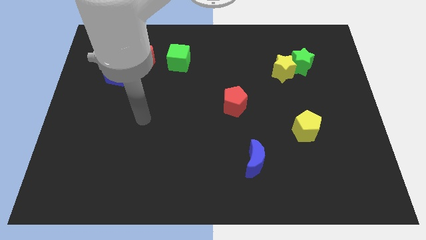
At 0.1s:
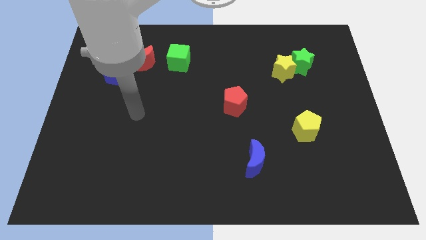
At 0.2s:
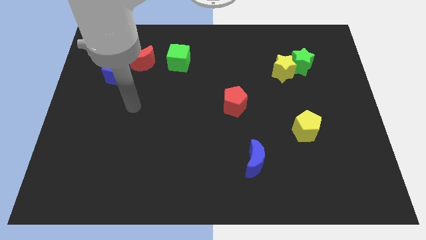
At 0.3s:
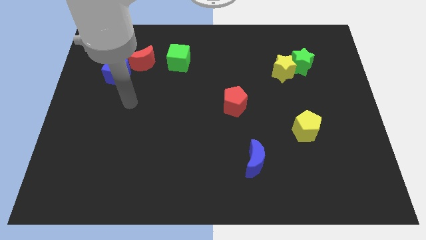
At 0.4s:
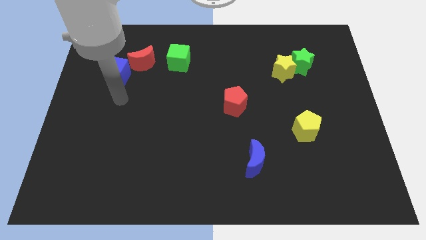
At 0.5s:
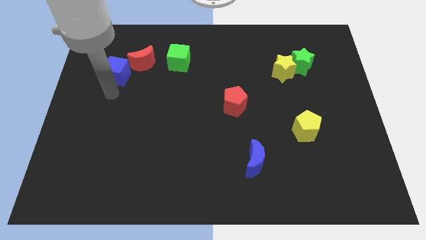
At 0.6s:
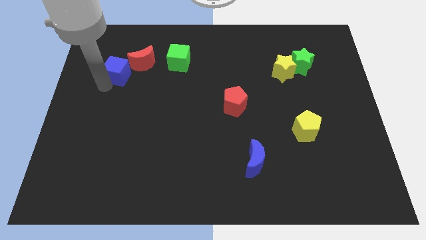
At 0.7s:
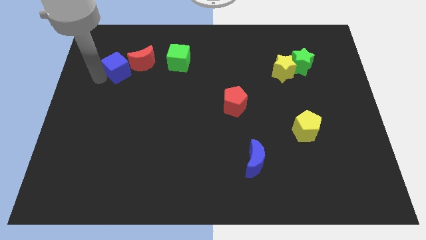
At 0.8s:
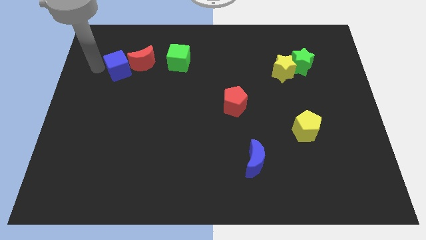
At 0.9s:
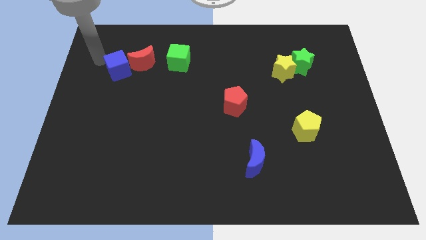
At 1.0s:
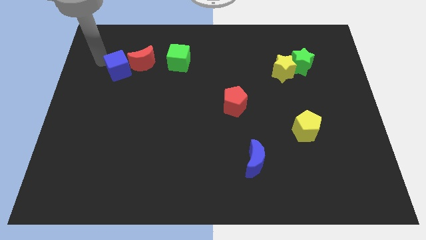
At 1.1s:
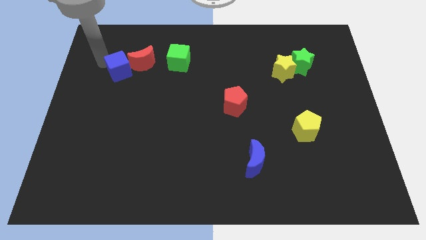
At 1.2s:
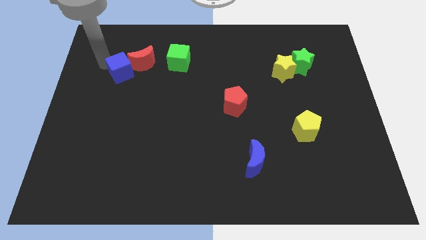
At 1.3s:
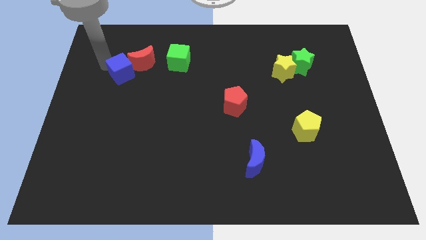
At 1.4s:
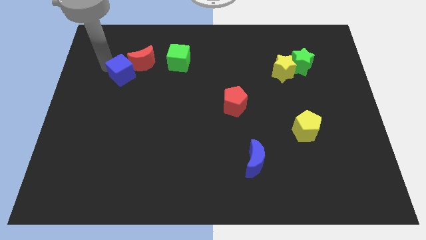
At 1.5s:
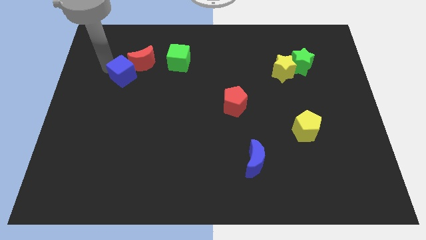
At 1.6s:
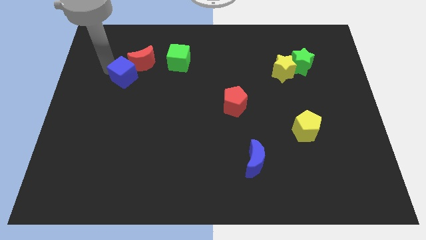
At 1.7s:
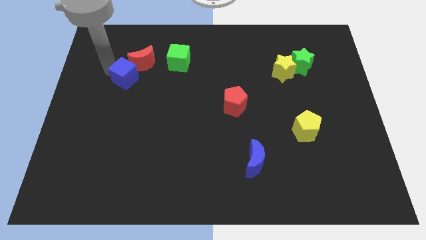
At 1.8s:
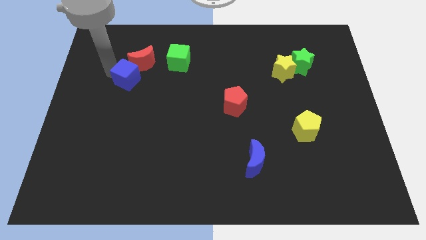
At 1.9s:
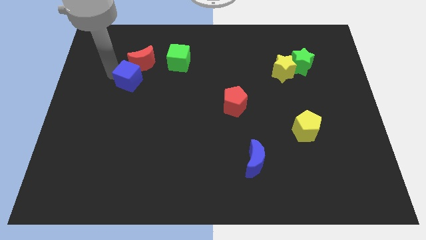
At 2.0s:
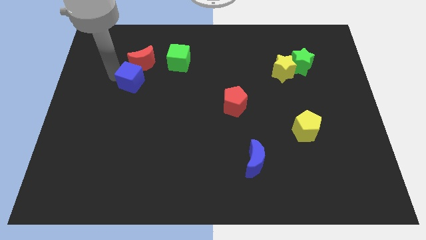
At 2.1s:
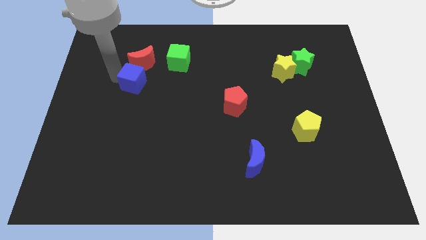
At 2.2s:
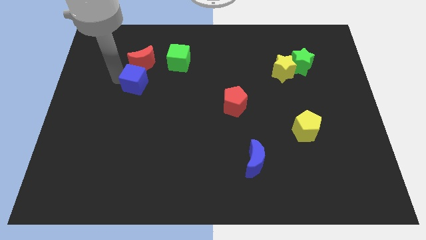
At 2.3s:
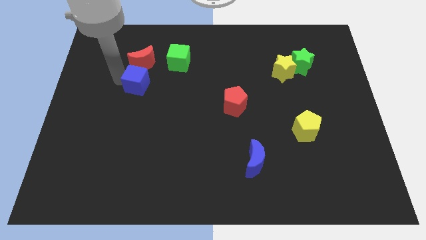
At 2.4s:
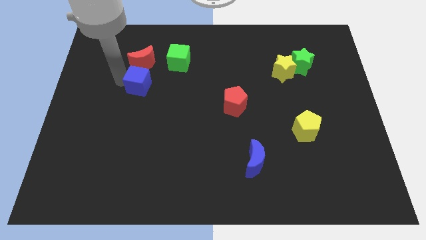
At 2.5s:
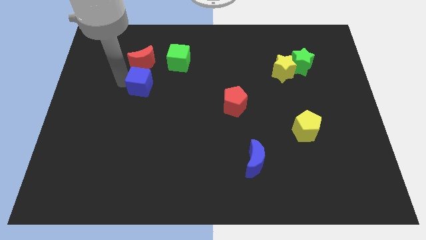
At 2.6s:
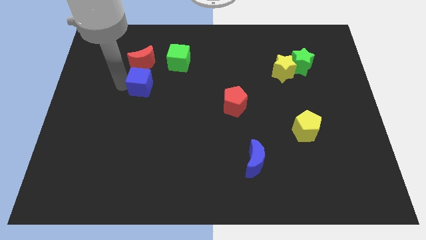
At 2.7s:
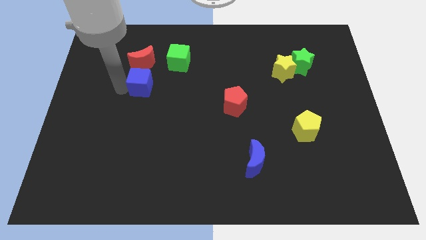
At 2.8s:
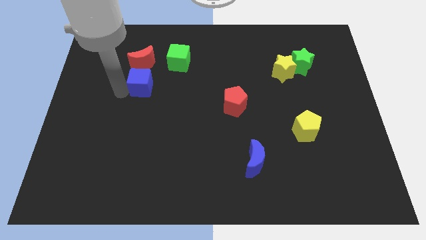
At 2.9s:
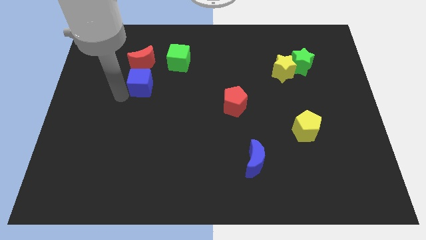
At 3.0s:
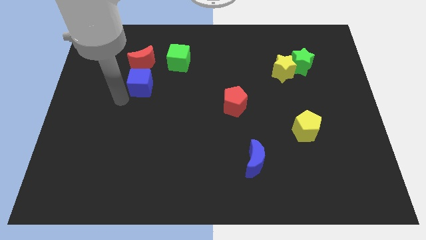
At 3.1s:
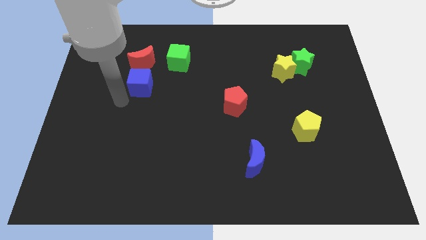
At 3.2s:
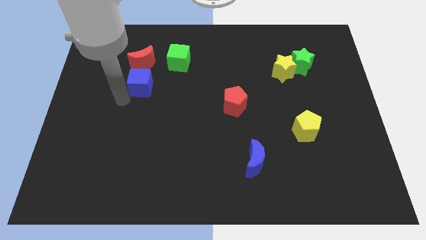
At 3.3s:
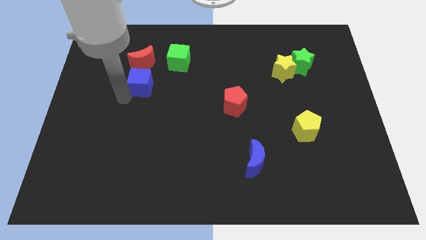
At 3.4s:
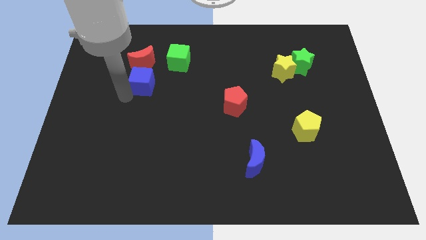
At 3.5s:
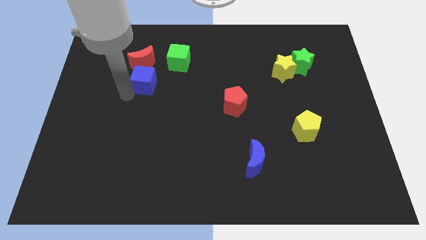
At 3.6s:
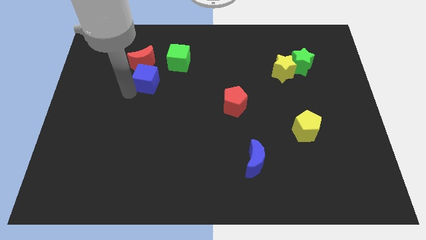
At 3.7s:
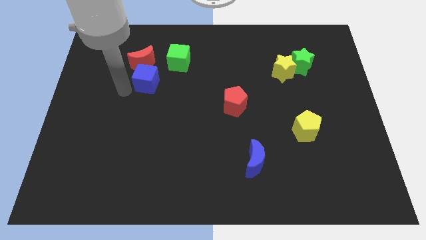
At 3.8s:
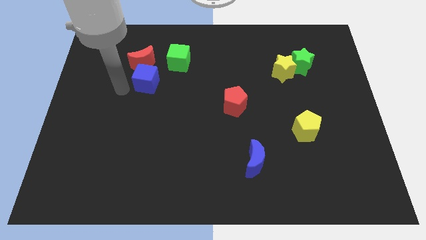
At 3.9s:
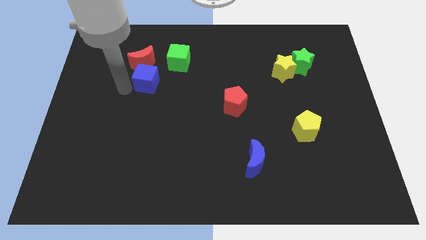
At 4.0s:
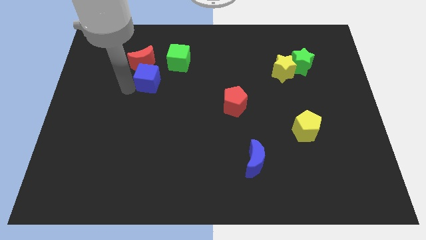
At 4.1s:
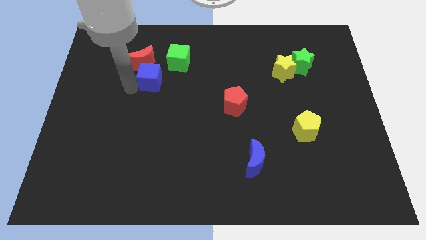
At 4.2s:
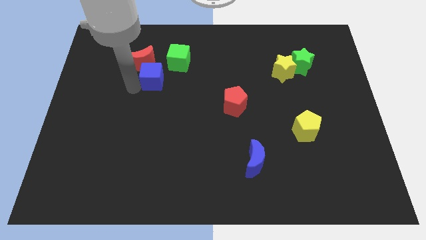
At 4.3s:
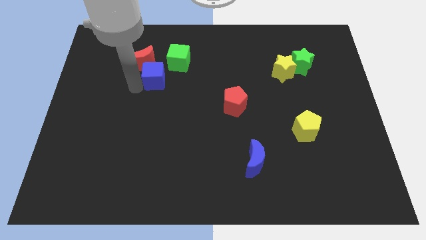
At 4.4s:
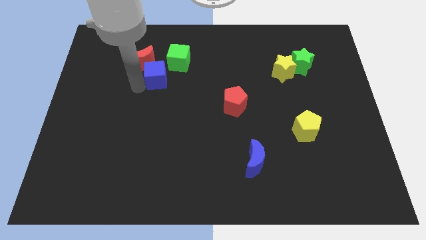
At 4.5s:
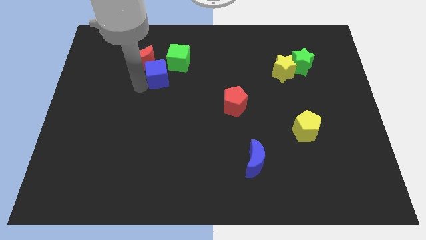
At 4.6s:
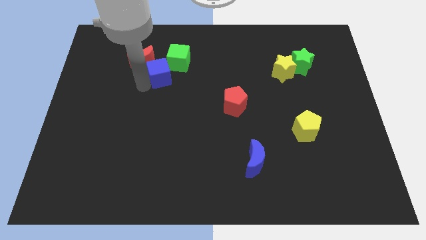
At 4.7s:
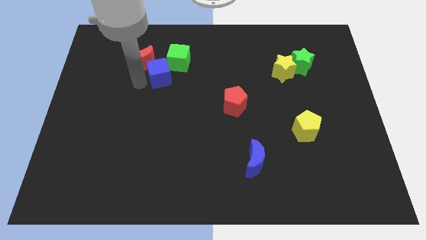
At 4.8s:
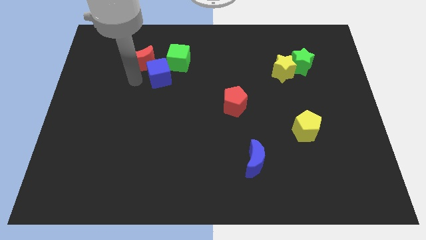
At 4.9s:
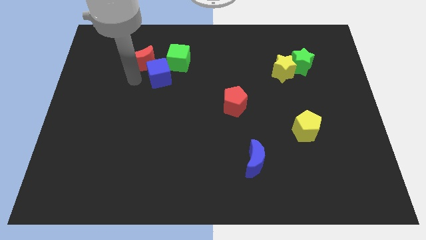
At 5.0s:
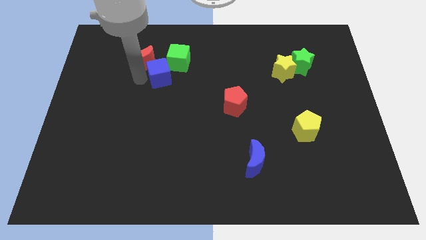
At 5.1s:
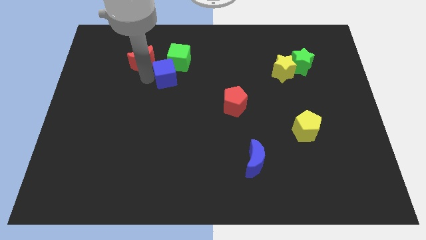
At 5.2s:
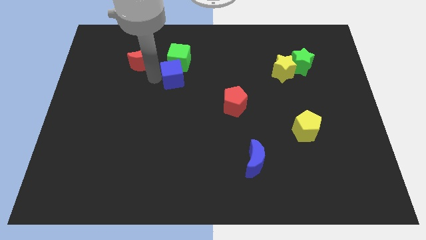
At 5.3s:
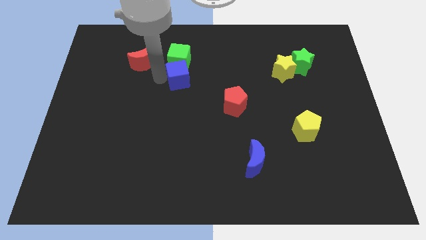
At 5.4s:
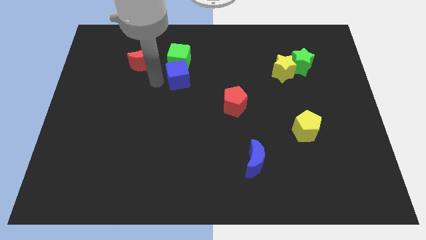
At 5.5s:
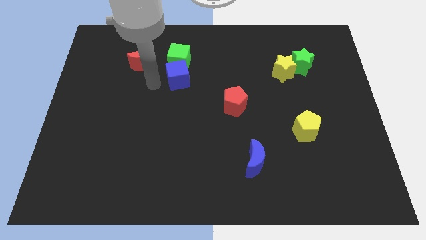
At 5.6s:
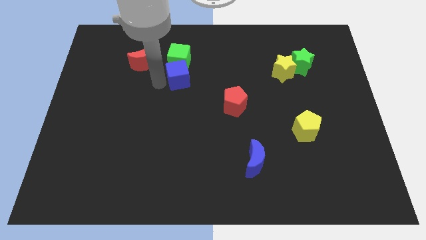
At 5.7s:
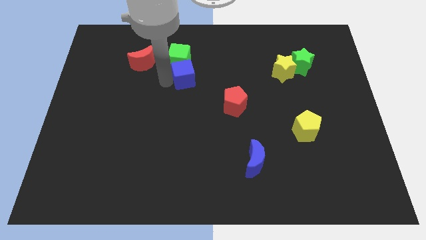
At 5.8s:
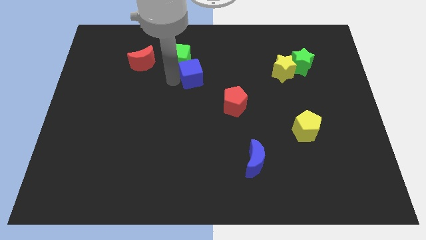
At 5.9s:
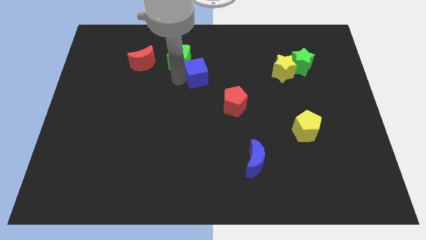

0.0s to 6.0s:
move the blue cube to the right

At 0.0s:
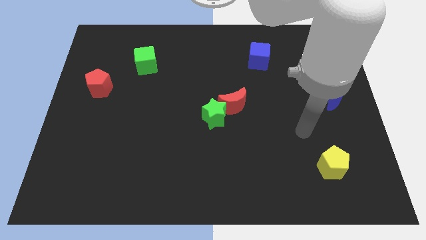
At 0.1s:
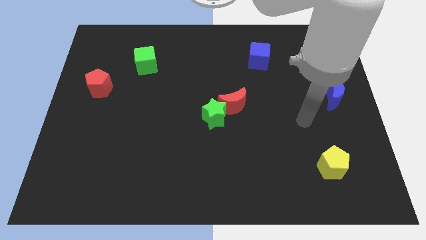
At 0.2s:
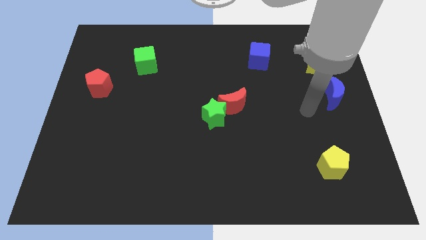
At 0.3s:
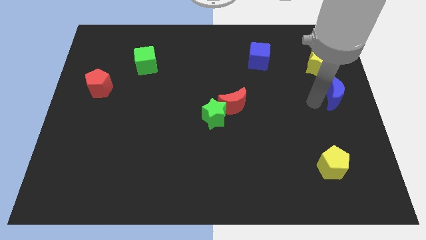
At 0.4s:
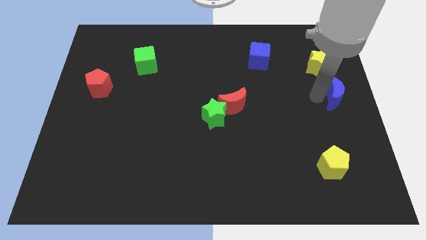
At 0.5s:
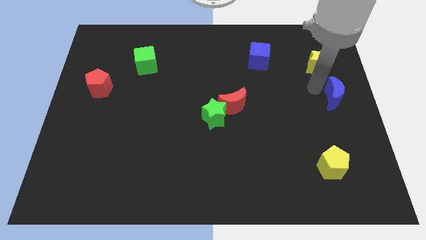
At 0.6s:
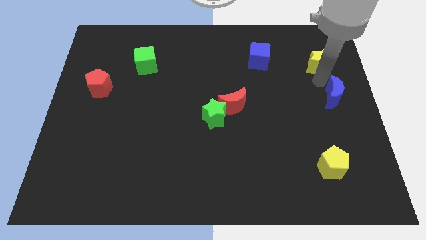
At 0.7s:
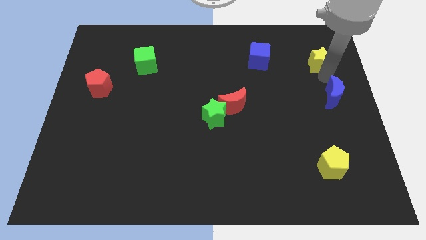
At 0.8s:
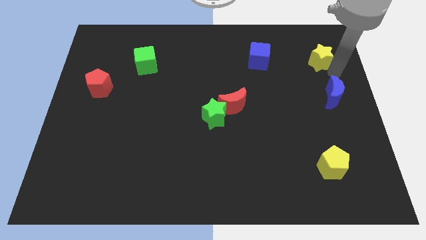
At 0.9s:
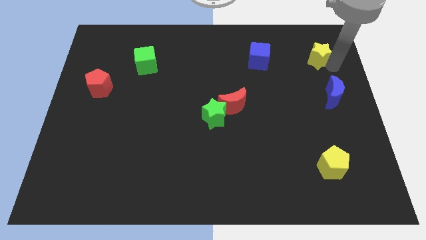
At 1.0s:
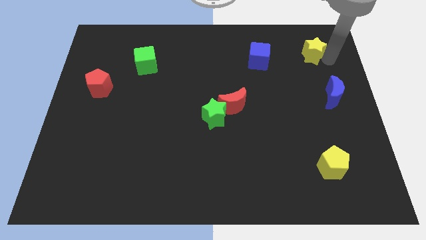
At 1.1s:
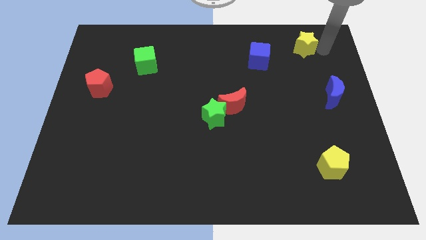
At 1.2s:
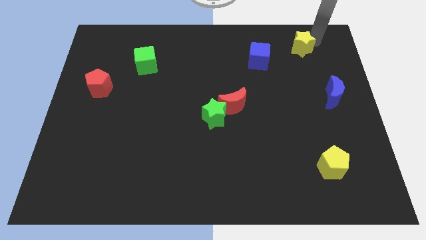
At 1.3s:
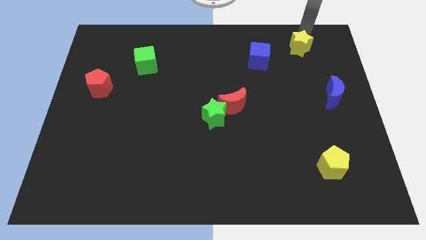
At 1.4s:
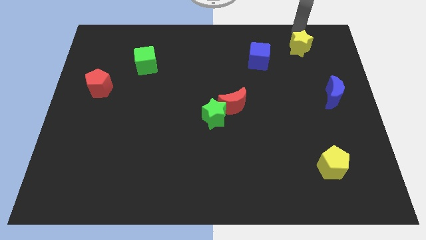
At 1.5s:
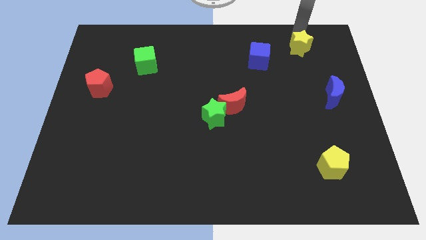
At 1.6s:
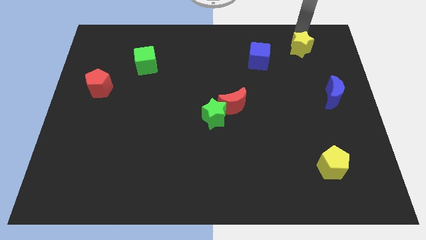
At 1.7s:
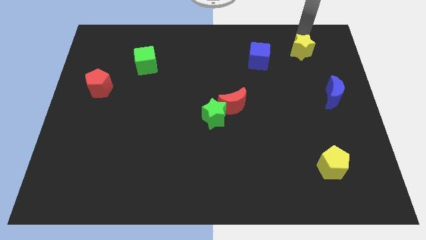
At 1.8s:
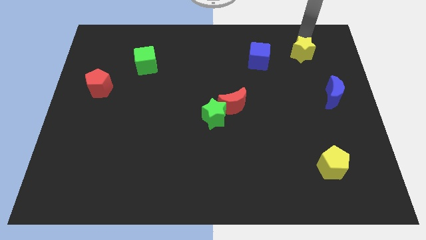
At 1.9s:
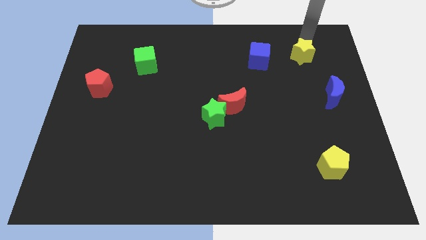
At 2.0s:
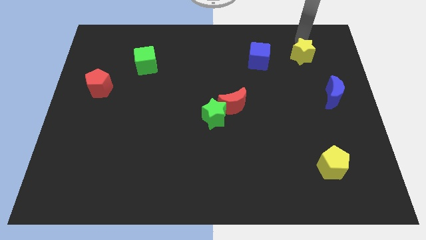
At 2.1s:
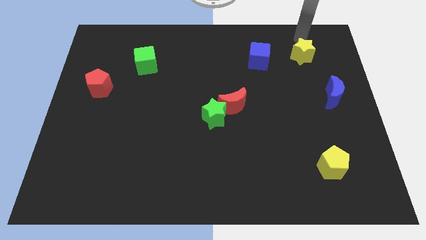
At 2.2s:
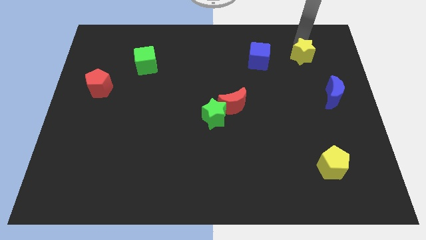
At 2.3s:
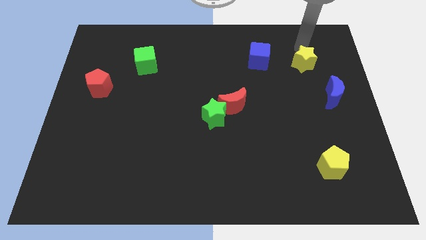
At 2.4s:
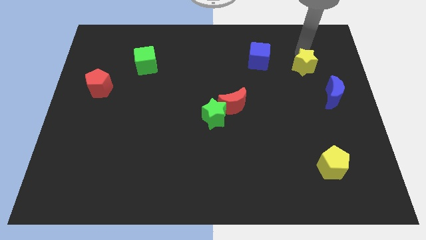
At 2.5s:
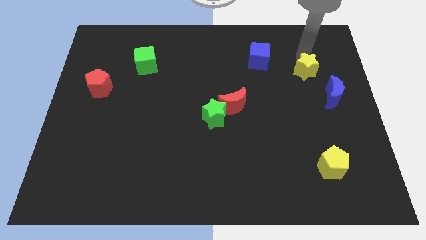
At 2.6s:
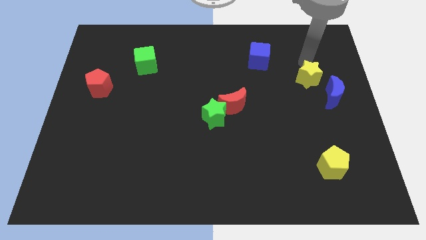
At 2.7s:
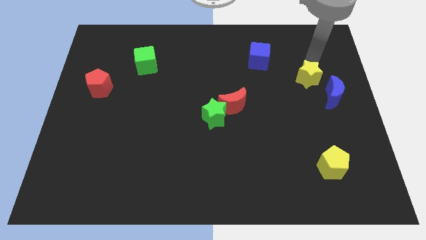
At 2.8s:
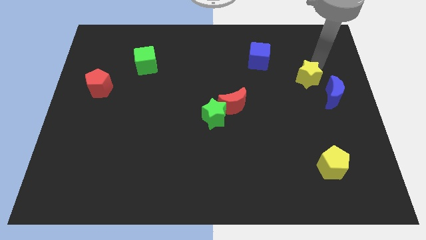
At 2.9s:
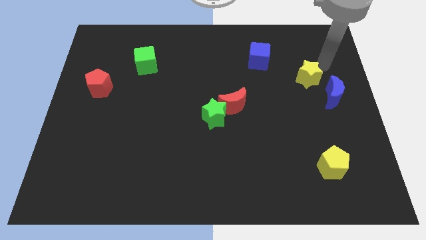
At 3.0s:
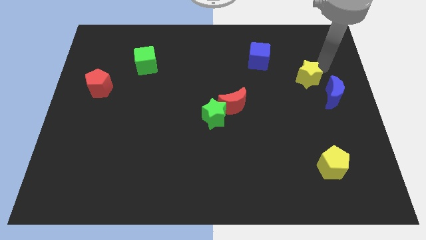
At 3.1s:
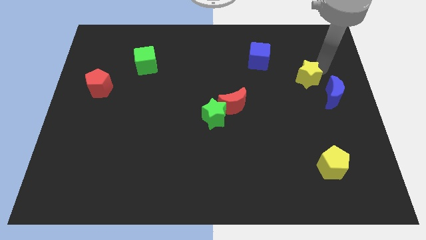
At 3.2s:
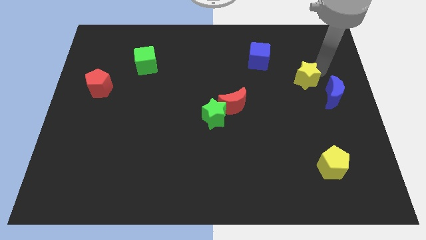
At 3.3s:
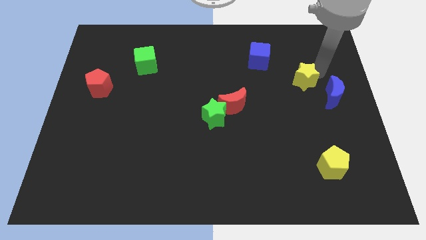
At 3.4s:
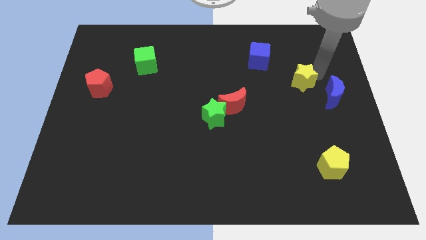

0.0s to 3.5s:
move the yellow star a little diagonally down and left
